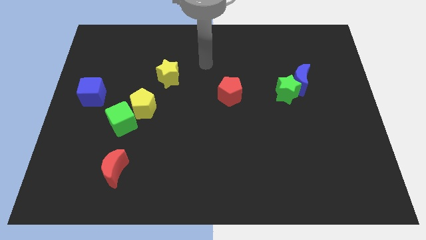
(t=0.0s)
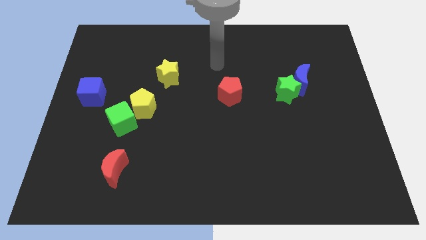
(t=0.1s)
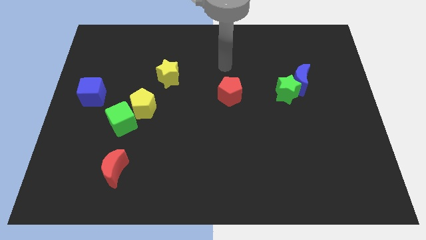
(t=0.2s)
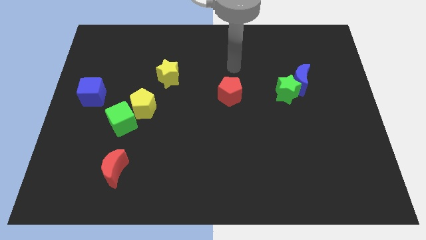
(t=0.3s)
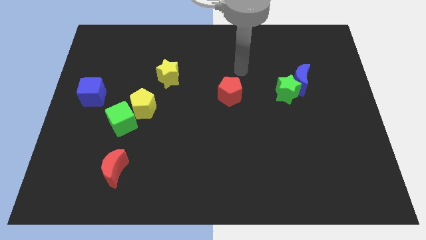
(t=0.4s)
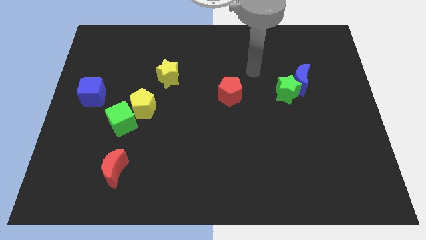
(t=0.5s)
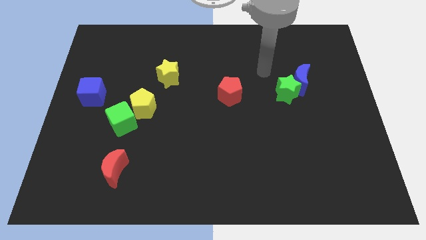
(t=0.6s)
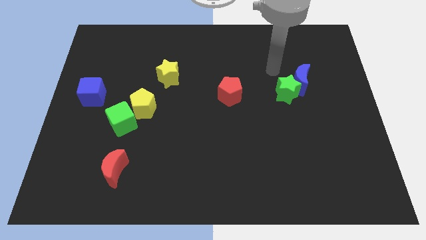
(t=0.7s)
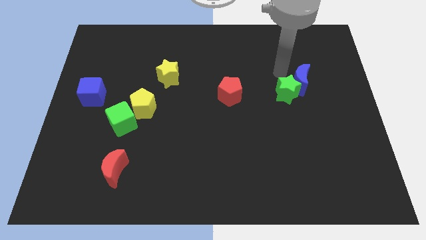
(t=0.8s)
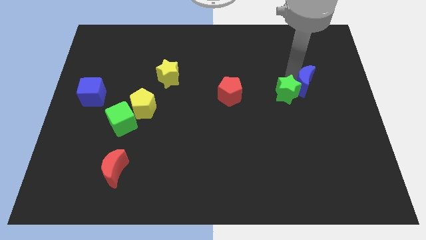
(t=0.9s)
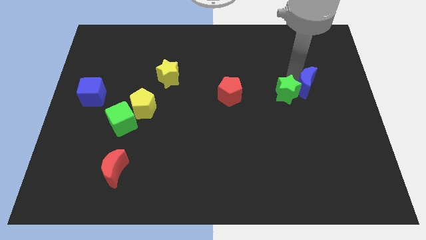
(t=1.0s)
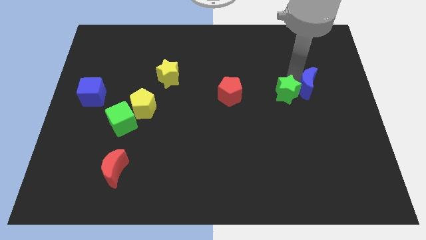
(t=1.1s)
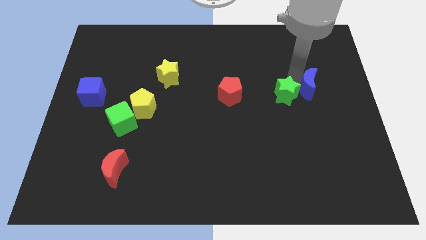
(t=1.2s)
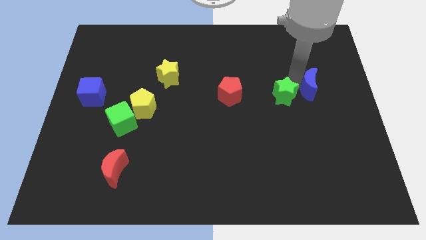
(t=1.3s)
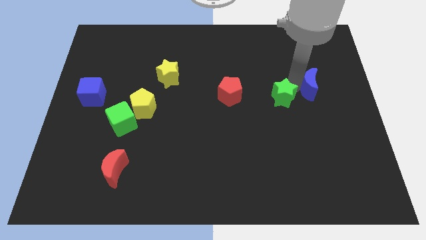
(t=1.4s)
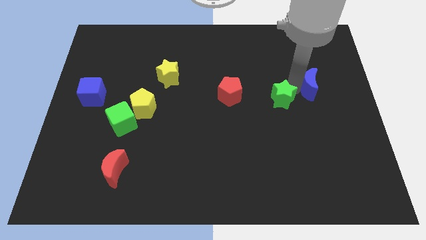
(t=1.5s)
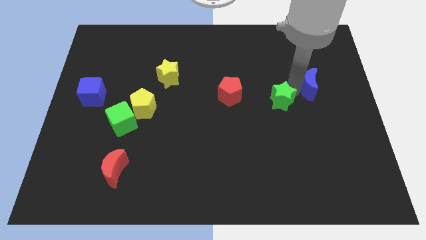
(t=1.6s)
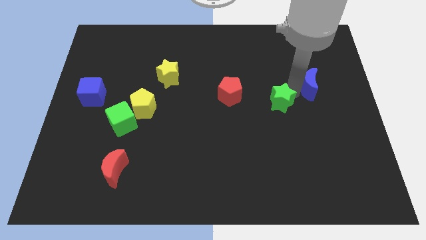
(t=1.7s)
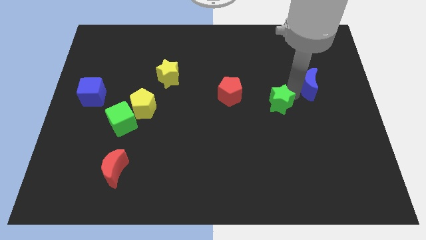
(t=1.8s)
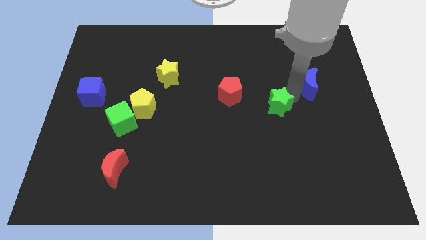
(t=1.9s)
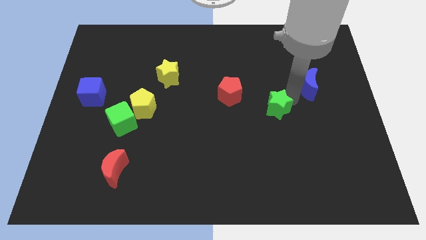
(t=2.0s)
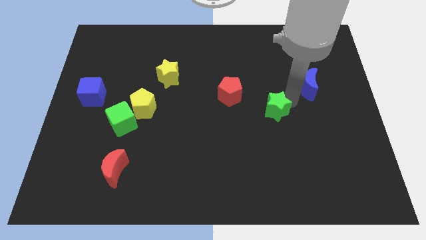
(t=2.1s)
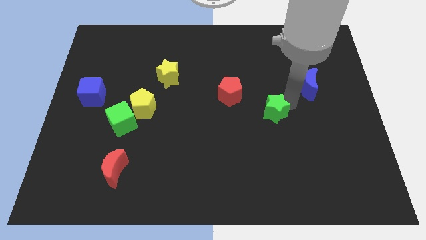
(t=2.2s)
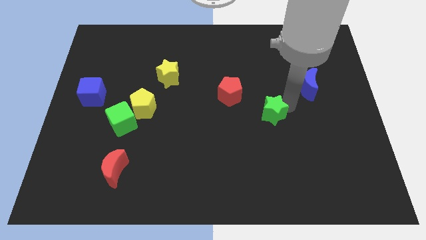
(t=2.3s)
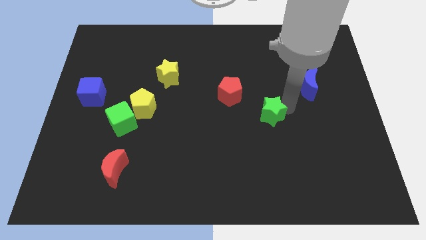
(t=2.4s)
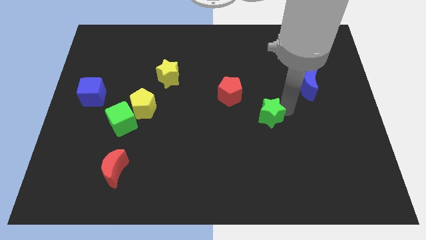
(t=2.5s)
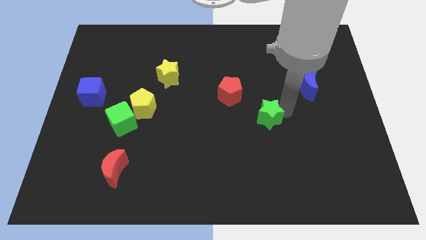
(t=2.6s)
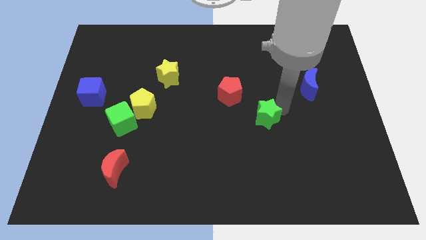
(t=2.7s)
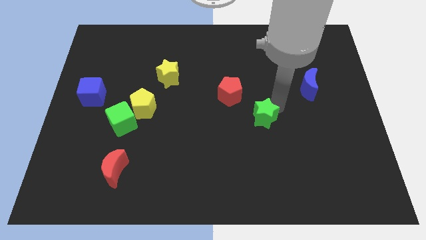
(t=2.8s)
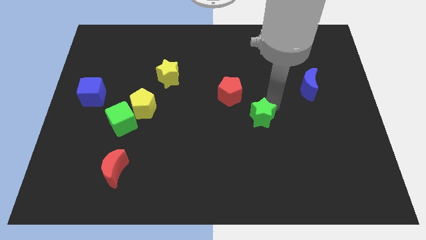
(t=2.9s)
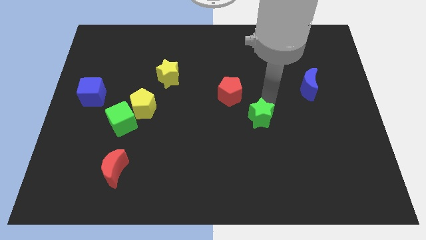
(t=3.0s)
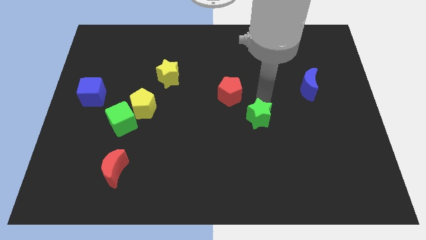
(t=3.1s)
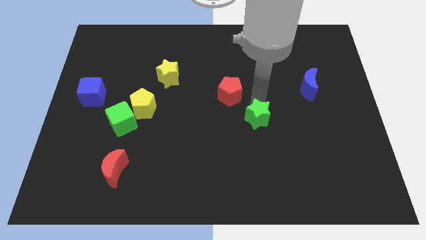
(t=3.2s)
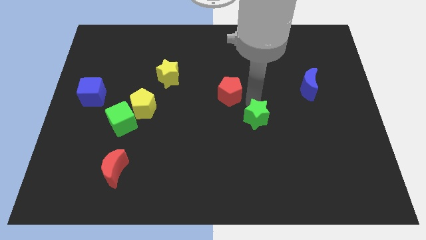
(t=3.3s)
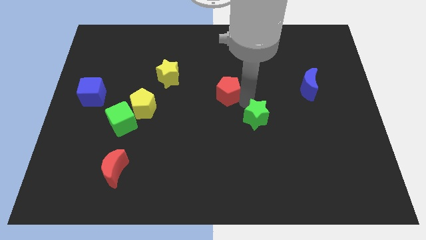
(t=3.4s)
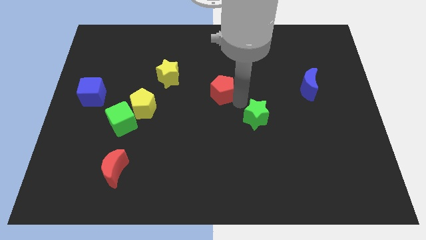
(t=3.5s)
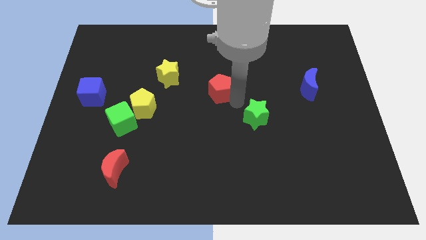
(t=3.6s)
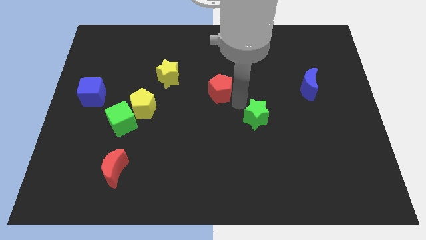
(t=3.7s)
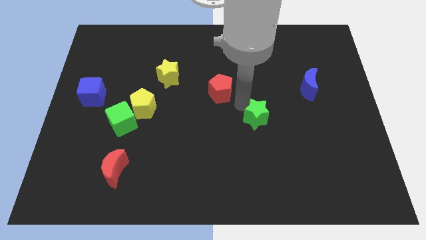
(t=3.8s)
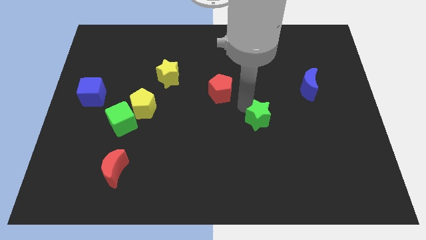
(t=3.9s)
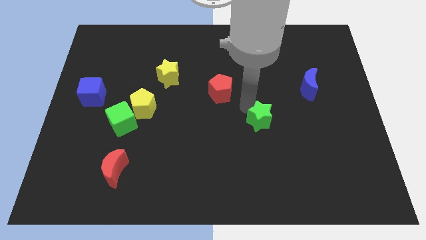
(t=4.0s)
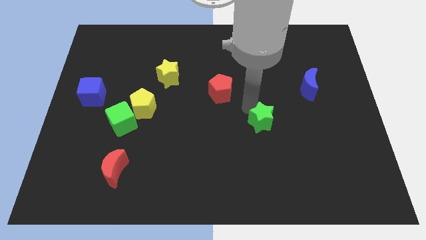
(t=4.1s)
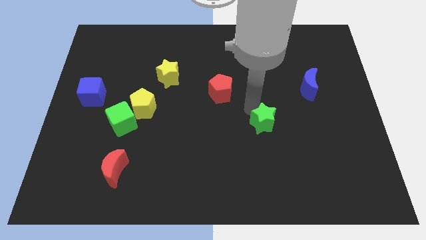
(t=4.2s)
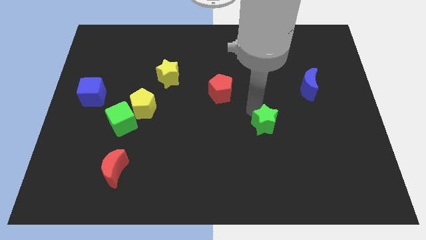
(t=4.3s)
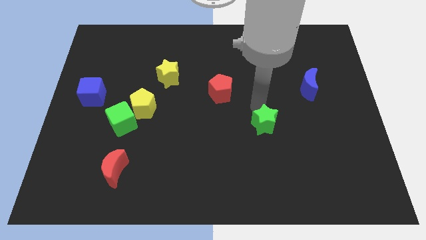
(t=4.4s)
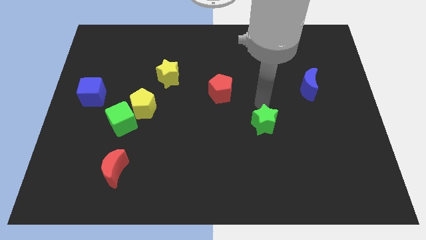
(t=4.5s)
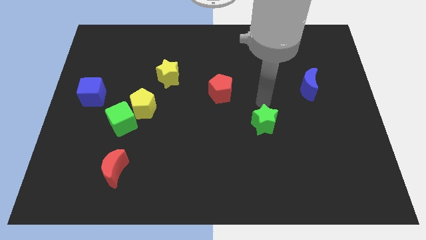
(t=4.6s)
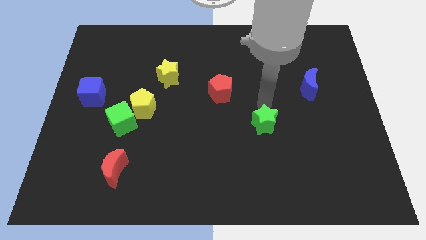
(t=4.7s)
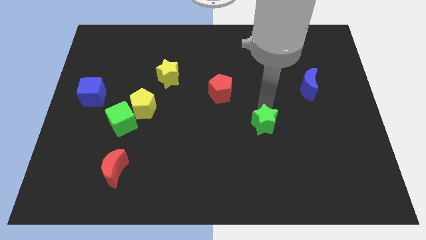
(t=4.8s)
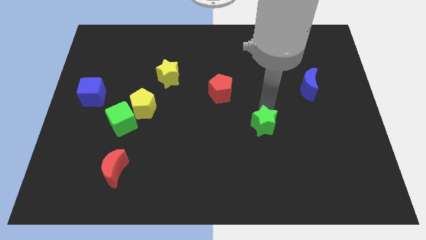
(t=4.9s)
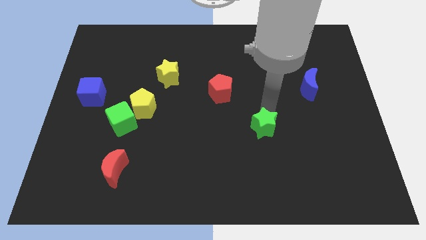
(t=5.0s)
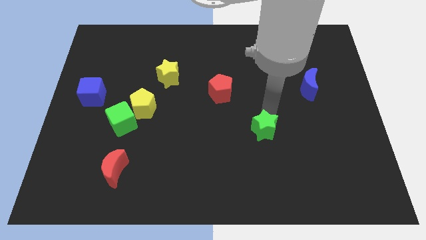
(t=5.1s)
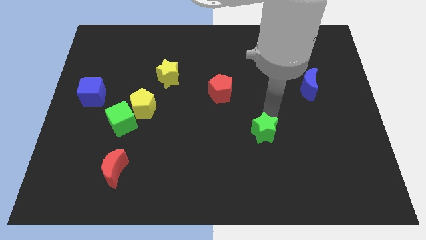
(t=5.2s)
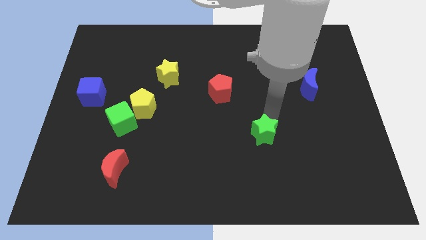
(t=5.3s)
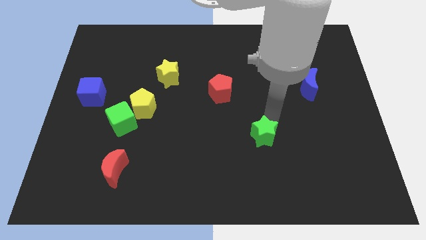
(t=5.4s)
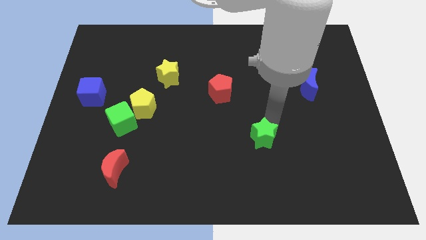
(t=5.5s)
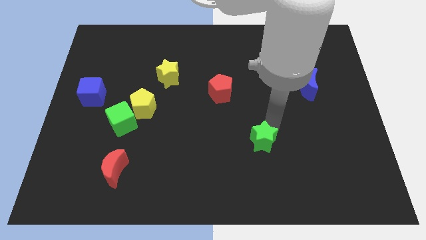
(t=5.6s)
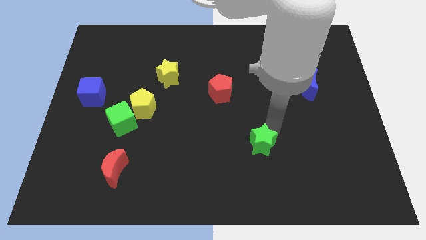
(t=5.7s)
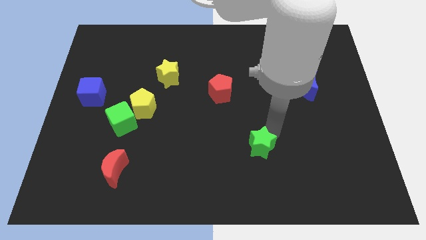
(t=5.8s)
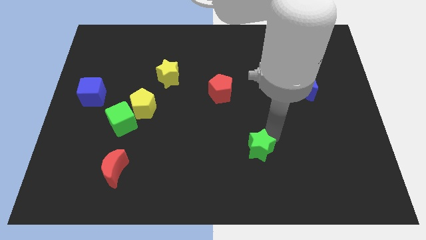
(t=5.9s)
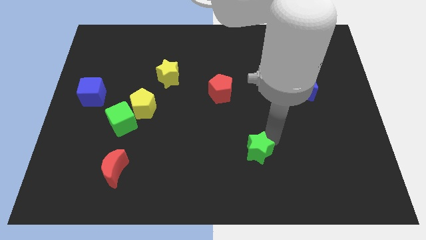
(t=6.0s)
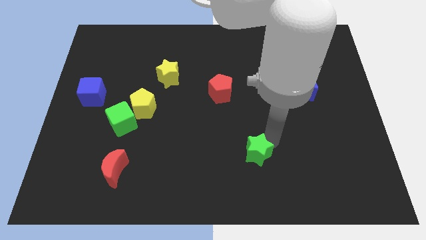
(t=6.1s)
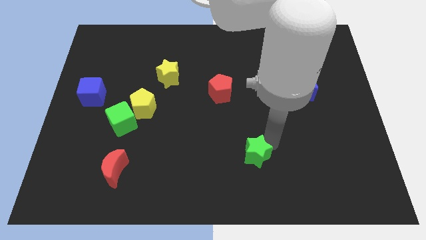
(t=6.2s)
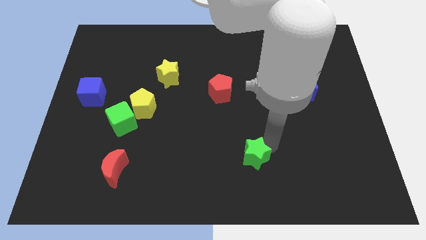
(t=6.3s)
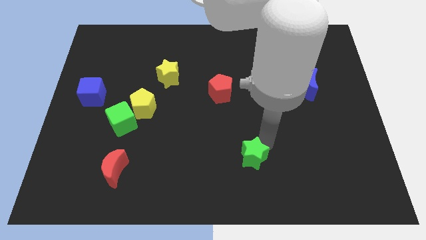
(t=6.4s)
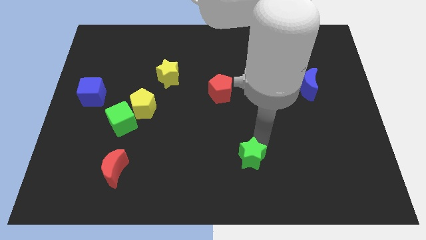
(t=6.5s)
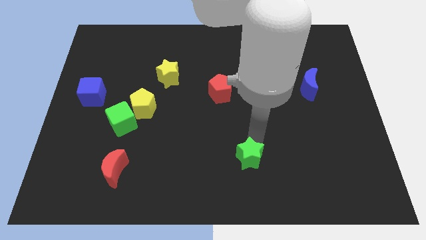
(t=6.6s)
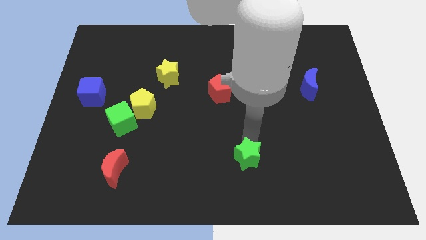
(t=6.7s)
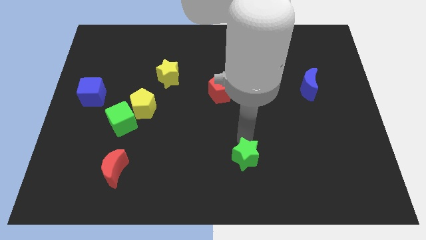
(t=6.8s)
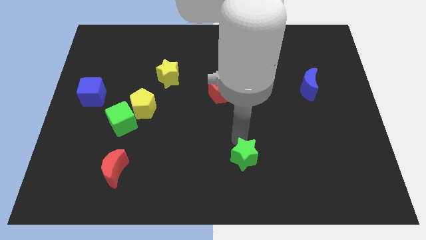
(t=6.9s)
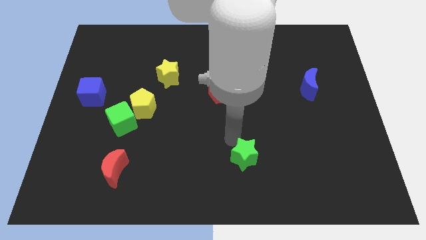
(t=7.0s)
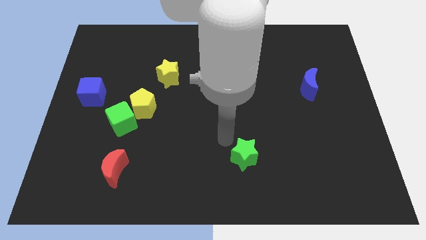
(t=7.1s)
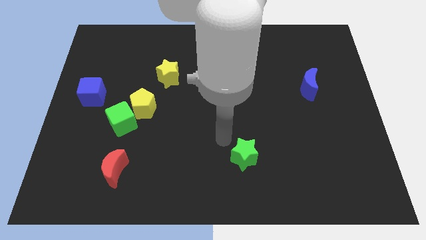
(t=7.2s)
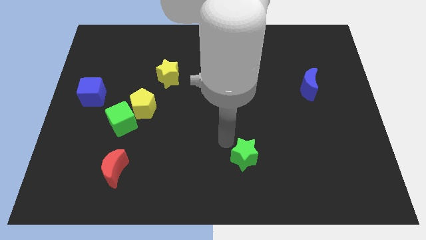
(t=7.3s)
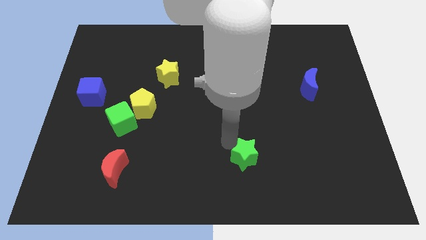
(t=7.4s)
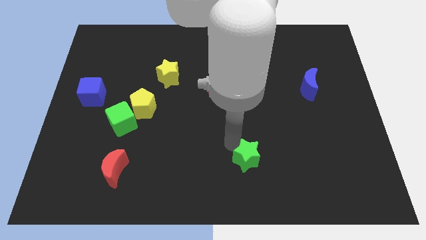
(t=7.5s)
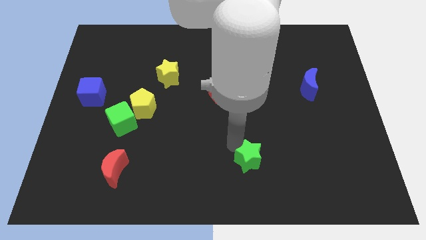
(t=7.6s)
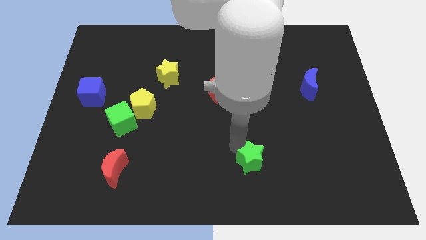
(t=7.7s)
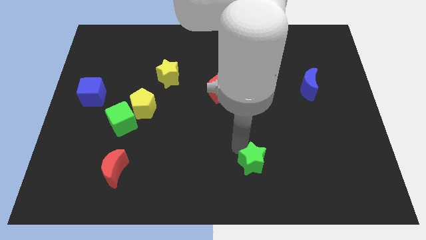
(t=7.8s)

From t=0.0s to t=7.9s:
slide the green star to the bottom side
